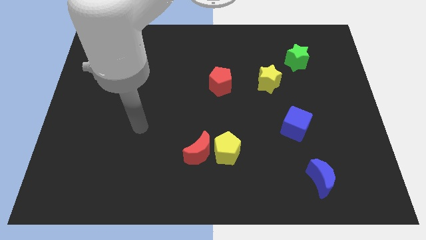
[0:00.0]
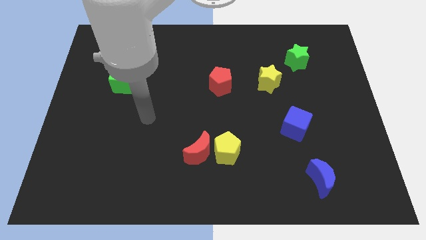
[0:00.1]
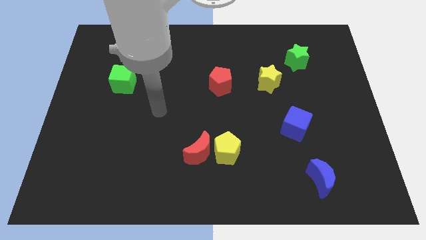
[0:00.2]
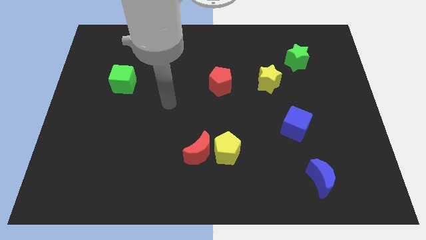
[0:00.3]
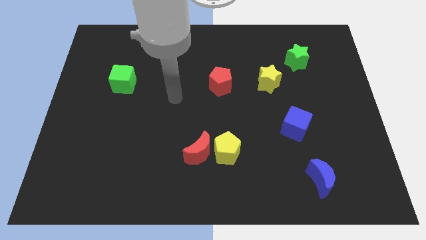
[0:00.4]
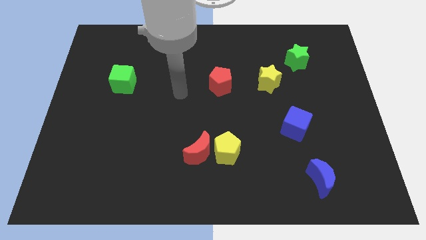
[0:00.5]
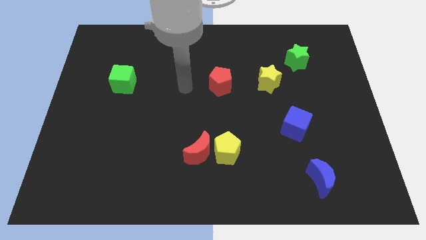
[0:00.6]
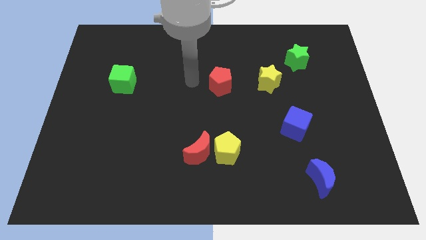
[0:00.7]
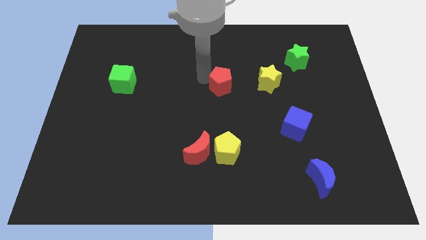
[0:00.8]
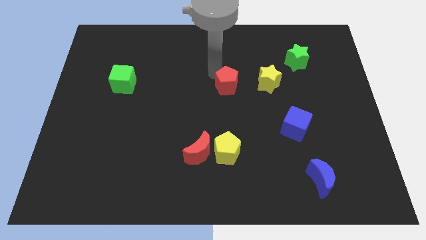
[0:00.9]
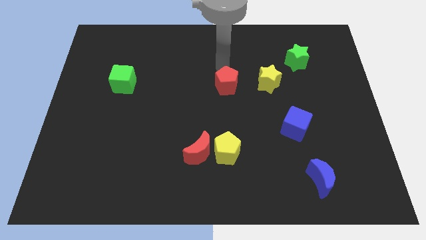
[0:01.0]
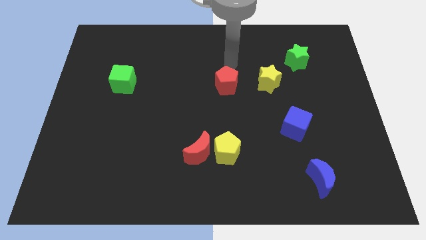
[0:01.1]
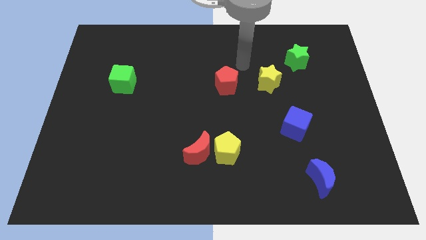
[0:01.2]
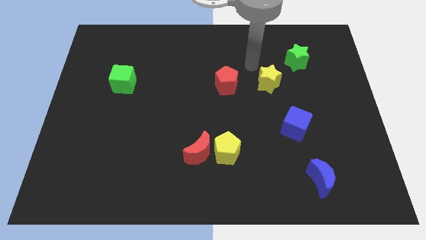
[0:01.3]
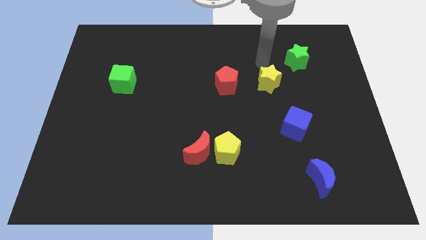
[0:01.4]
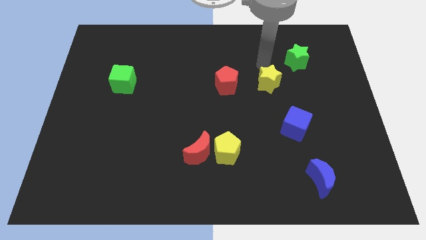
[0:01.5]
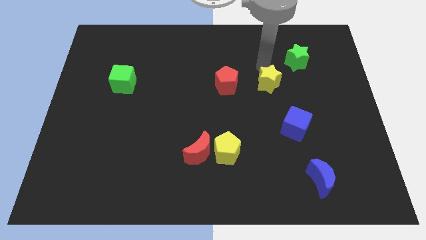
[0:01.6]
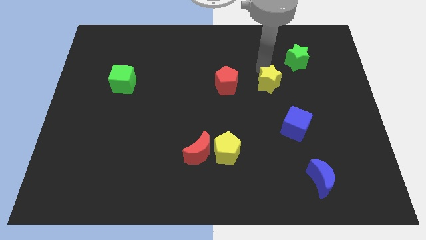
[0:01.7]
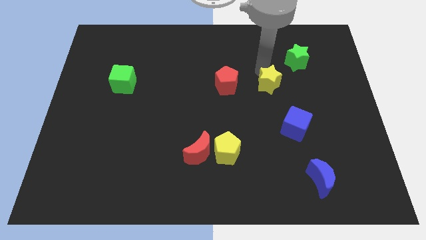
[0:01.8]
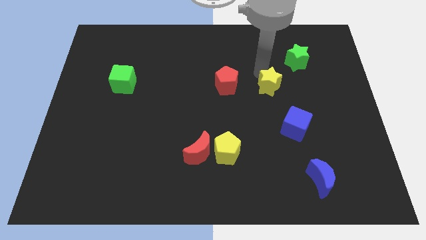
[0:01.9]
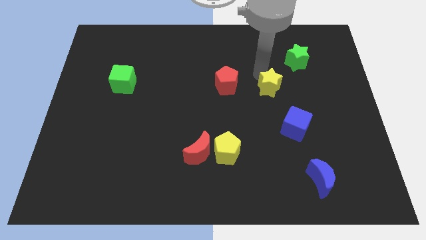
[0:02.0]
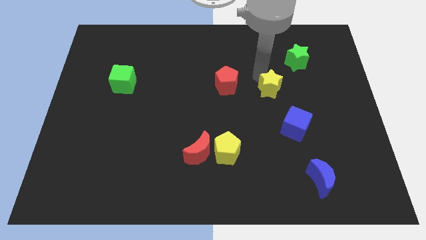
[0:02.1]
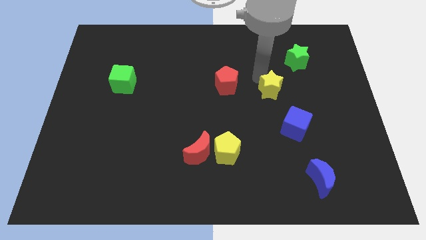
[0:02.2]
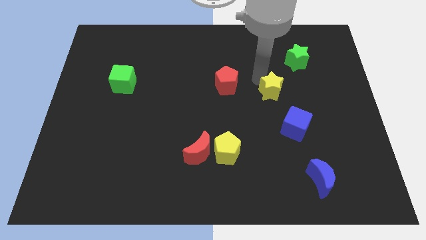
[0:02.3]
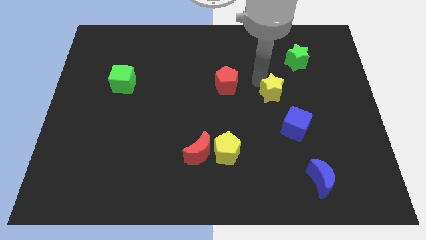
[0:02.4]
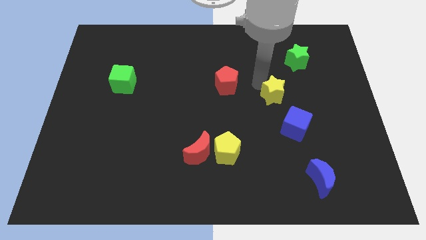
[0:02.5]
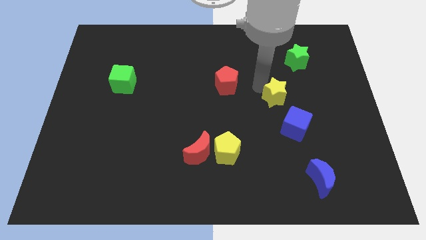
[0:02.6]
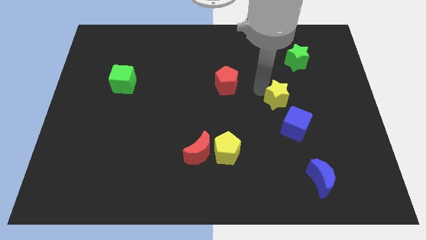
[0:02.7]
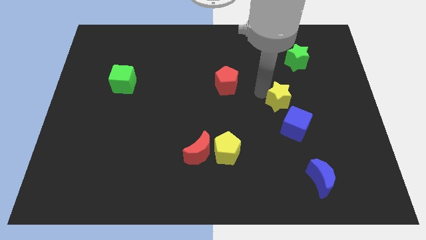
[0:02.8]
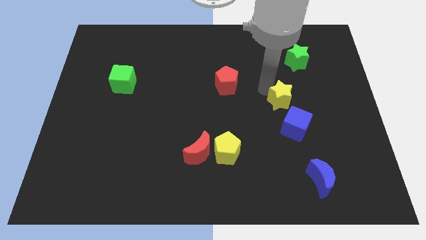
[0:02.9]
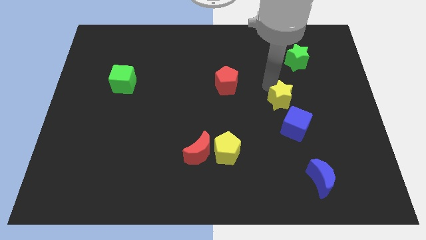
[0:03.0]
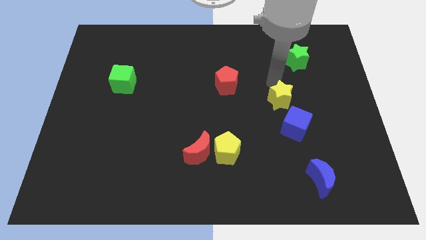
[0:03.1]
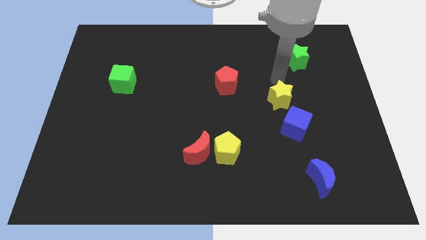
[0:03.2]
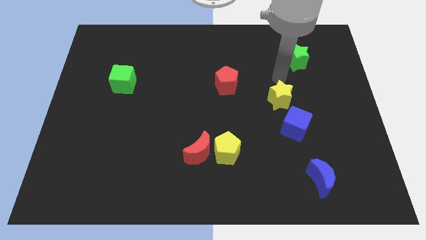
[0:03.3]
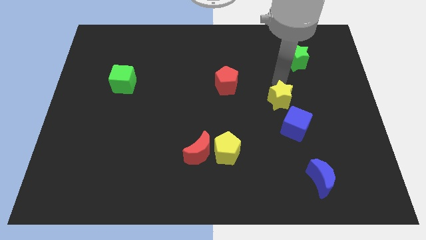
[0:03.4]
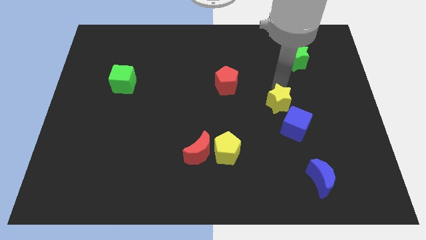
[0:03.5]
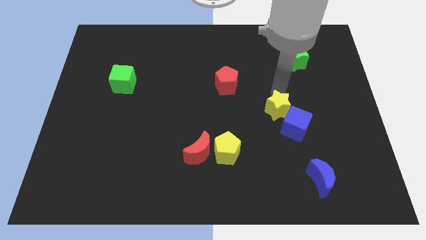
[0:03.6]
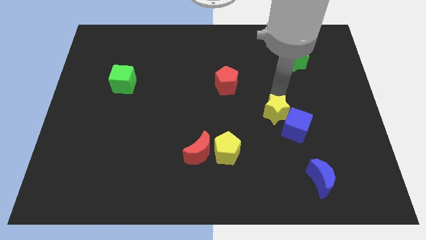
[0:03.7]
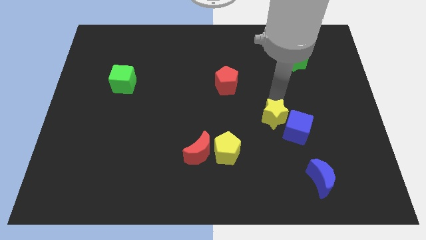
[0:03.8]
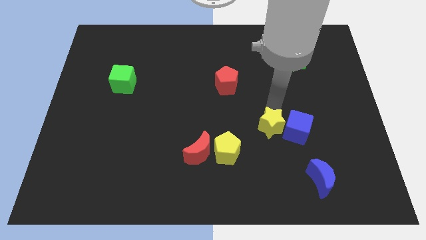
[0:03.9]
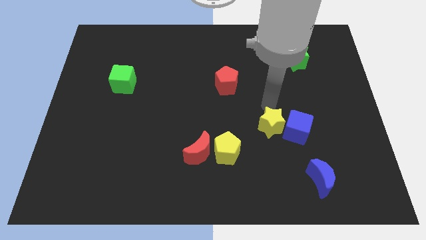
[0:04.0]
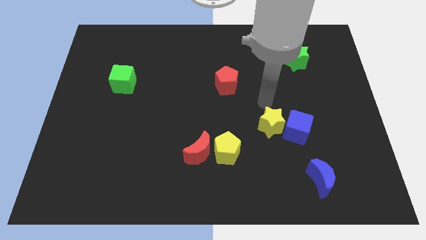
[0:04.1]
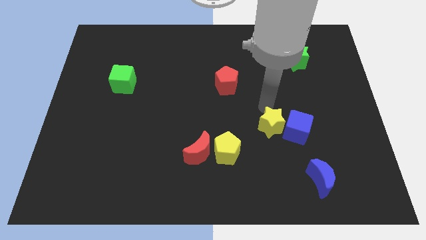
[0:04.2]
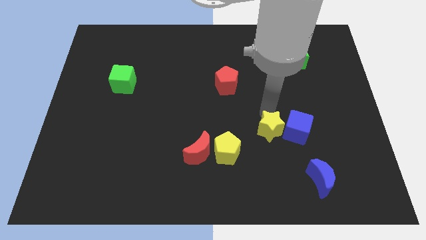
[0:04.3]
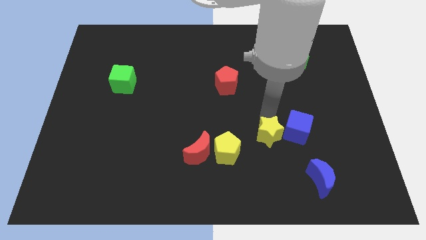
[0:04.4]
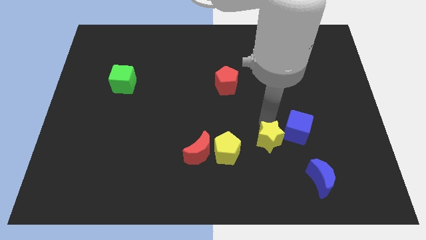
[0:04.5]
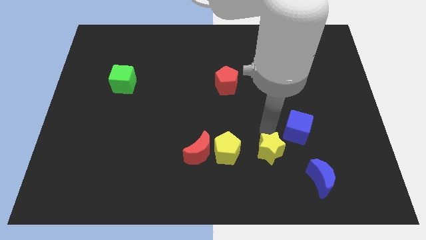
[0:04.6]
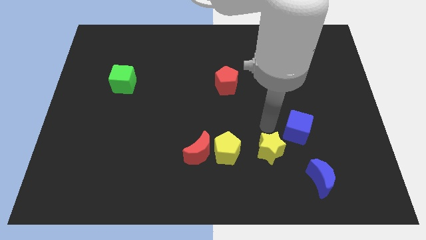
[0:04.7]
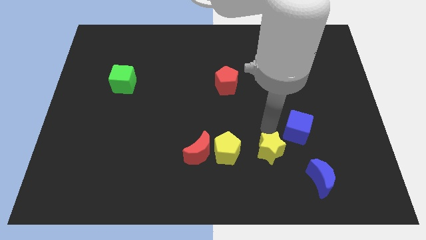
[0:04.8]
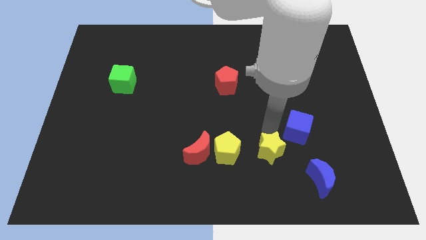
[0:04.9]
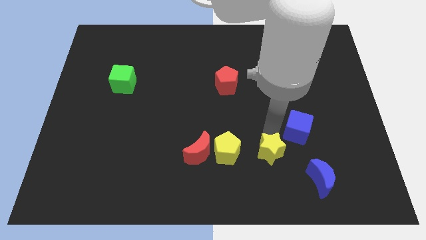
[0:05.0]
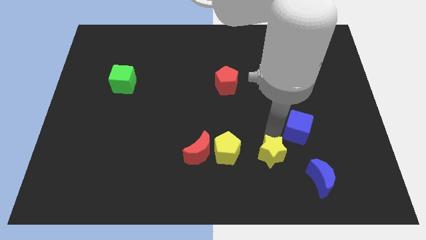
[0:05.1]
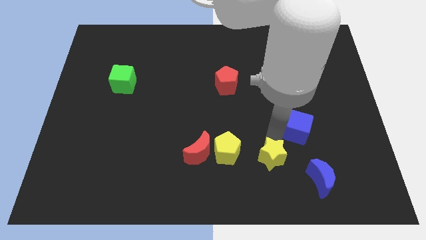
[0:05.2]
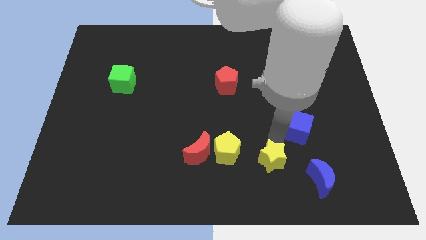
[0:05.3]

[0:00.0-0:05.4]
put the yellow star to the left of the blue moon

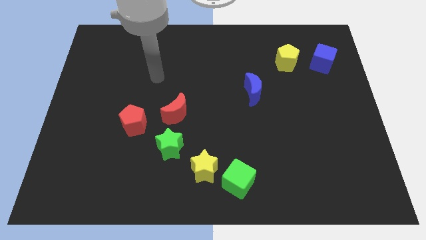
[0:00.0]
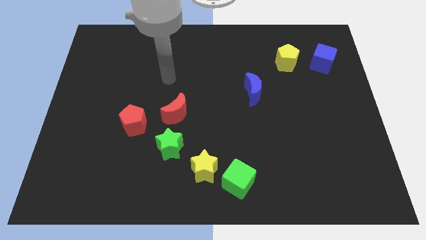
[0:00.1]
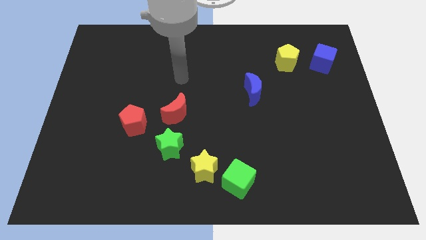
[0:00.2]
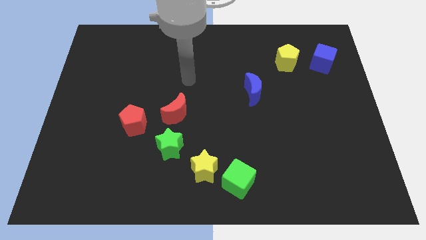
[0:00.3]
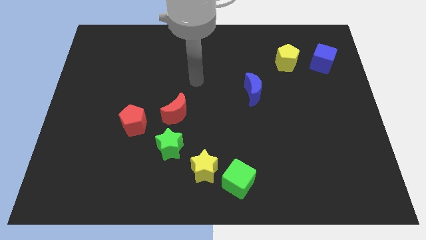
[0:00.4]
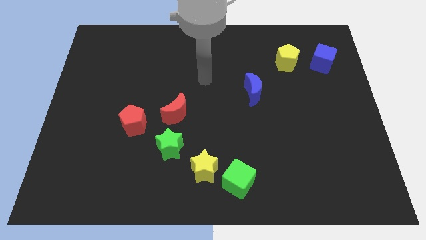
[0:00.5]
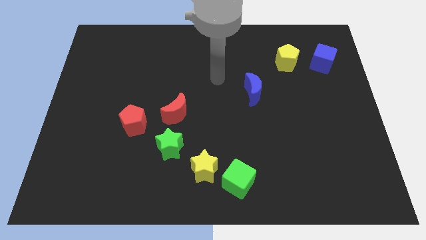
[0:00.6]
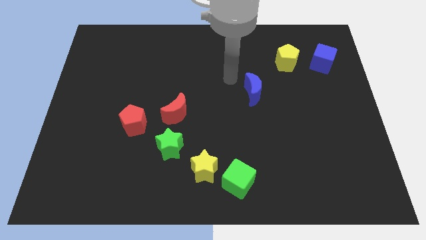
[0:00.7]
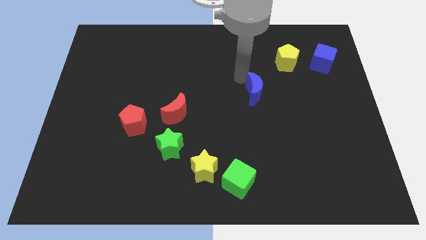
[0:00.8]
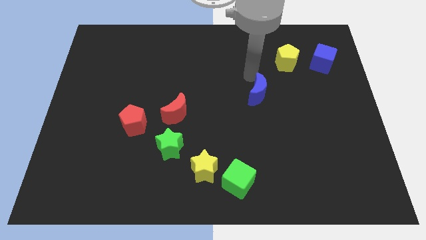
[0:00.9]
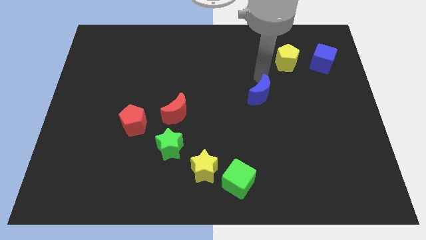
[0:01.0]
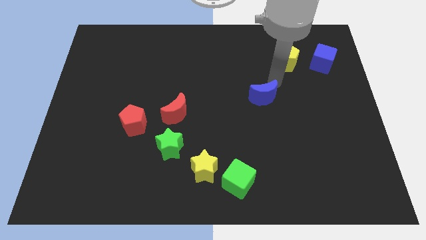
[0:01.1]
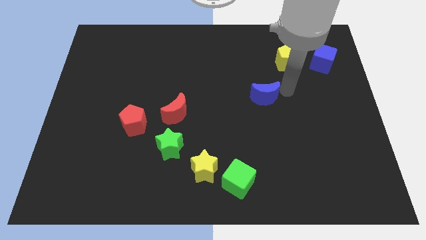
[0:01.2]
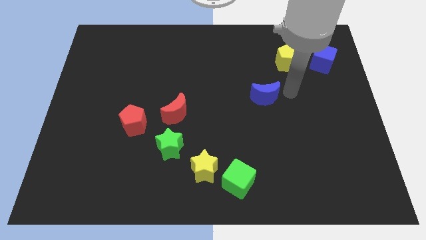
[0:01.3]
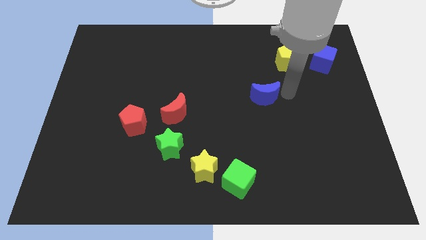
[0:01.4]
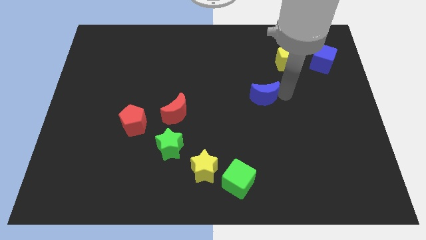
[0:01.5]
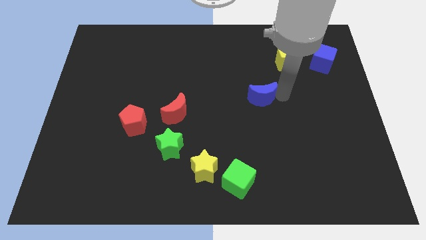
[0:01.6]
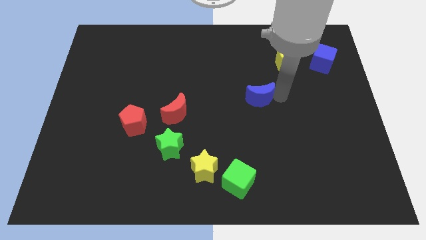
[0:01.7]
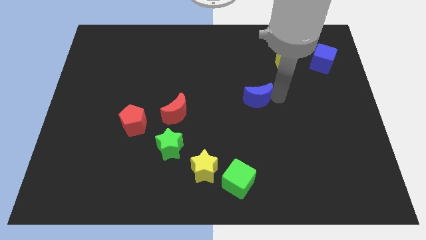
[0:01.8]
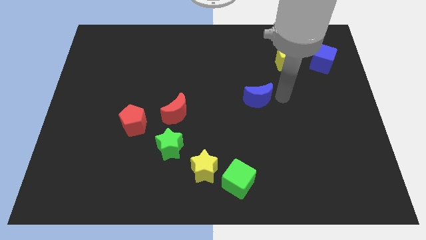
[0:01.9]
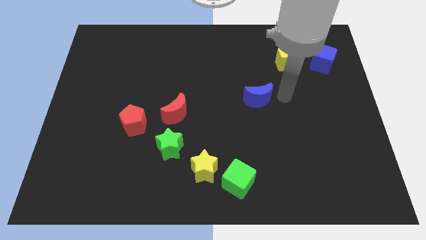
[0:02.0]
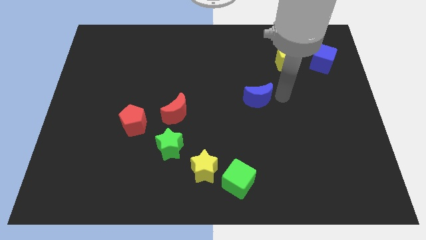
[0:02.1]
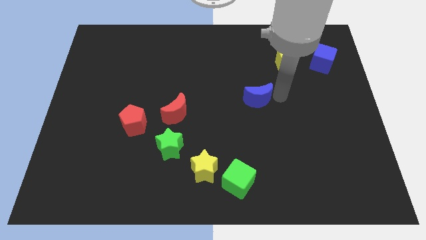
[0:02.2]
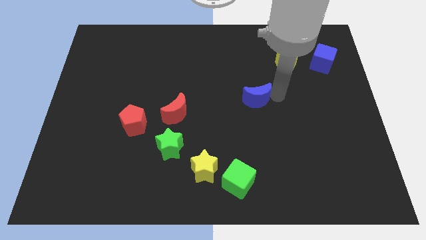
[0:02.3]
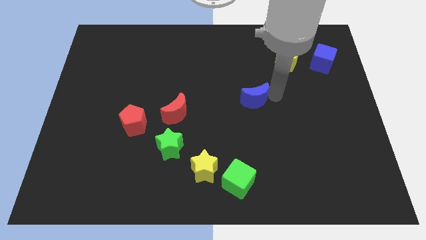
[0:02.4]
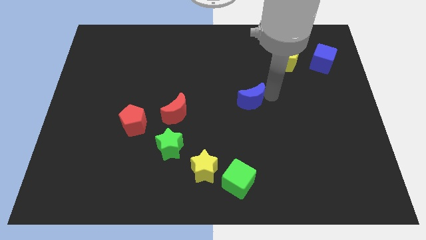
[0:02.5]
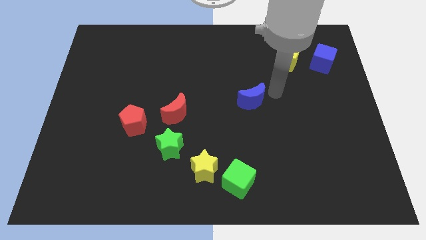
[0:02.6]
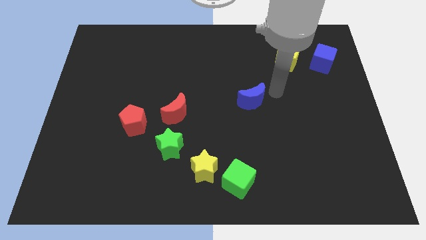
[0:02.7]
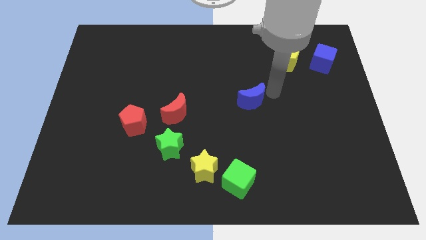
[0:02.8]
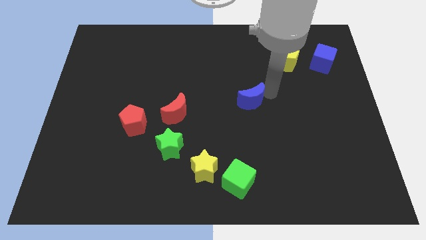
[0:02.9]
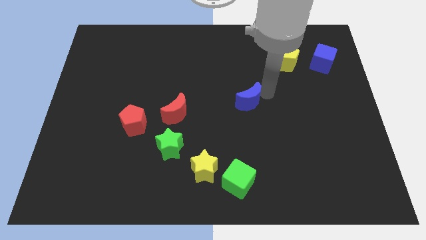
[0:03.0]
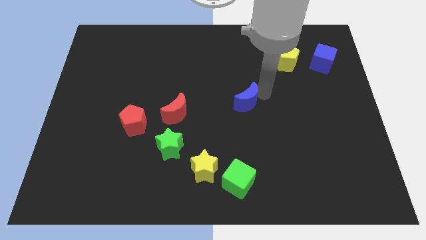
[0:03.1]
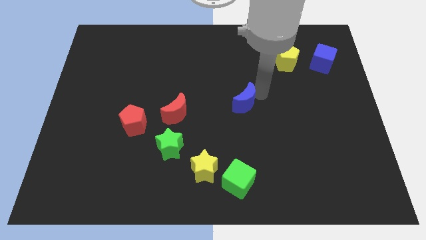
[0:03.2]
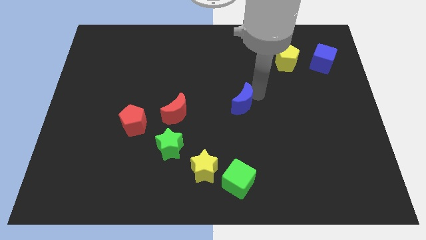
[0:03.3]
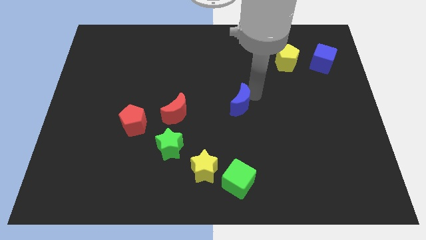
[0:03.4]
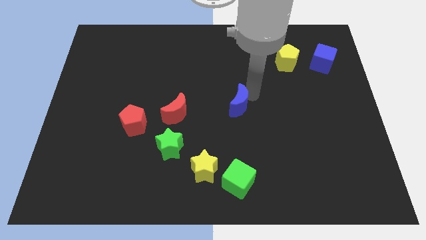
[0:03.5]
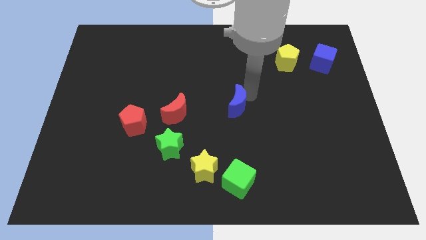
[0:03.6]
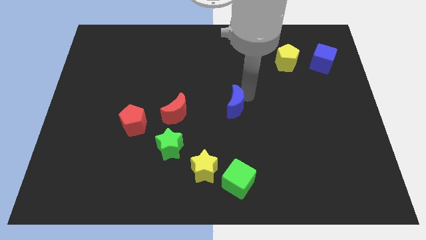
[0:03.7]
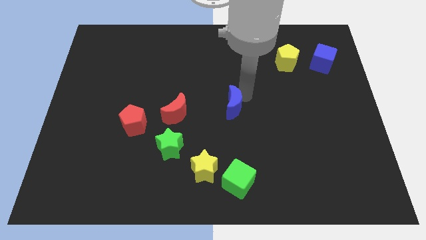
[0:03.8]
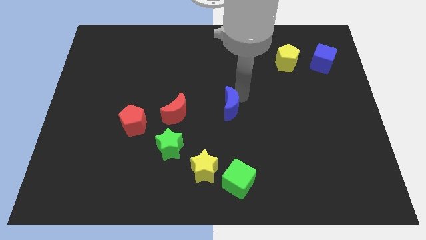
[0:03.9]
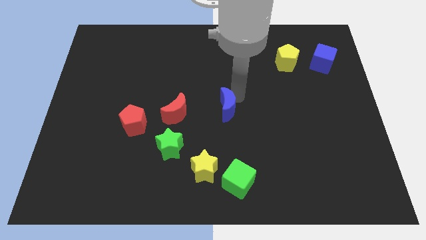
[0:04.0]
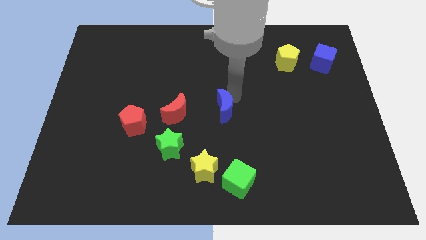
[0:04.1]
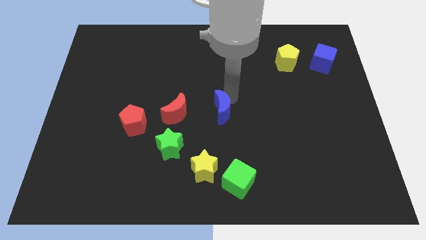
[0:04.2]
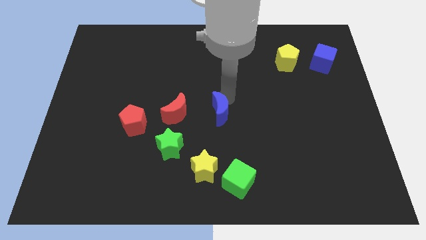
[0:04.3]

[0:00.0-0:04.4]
slide the blue moon above the yellow star
